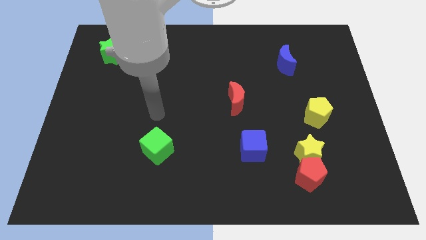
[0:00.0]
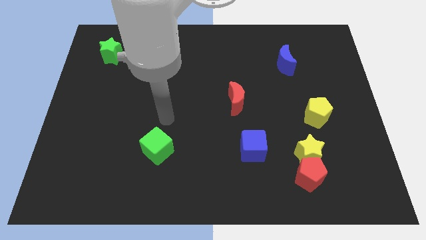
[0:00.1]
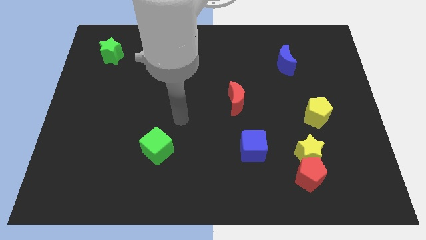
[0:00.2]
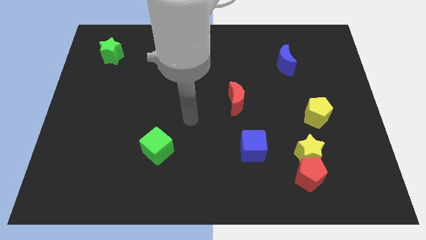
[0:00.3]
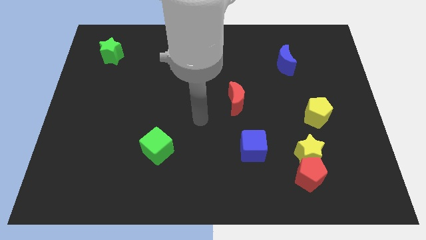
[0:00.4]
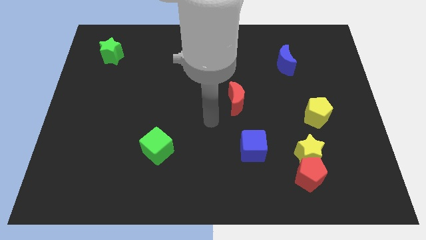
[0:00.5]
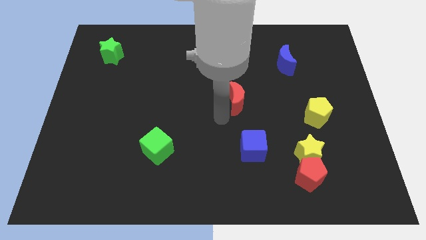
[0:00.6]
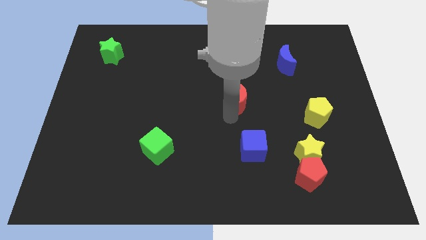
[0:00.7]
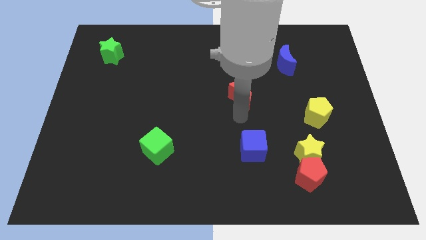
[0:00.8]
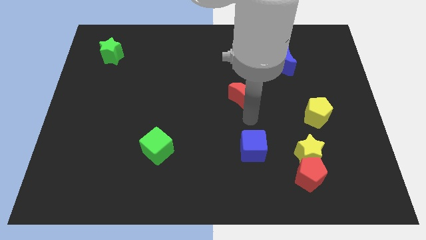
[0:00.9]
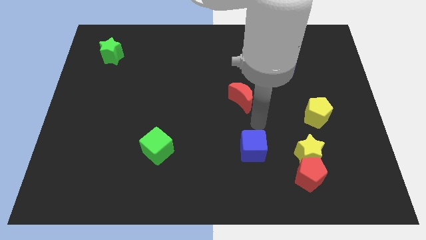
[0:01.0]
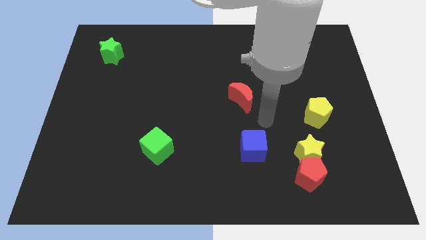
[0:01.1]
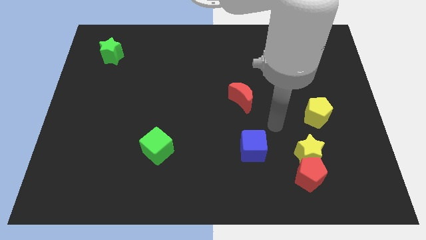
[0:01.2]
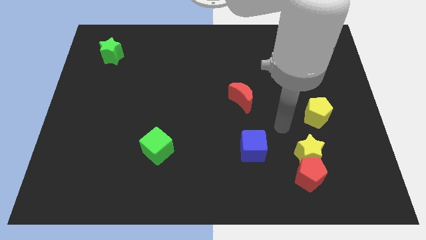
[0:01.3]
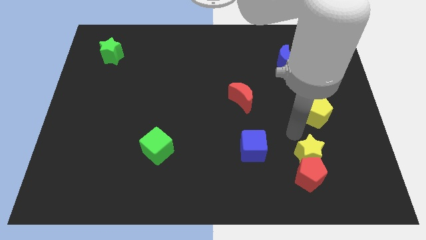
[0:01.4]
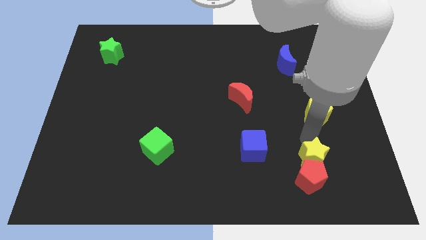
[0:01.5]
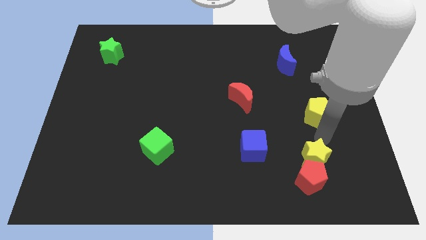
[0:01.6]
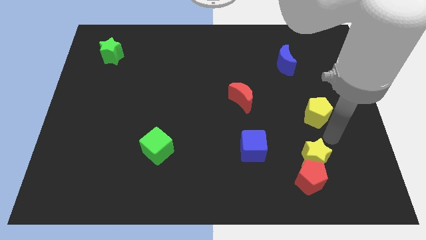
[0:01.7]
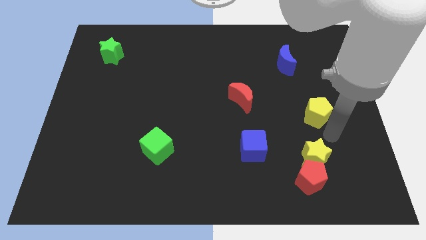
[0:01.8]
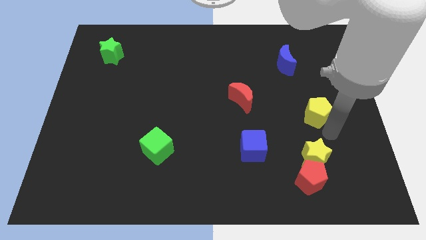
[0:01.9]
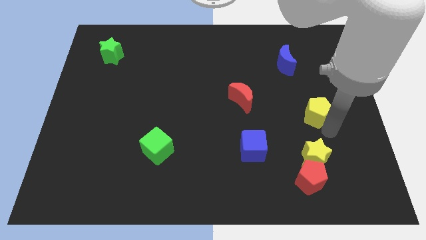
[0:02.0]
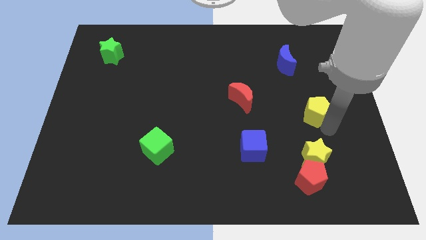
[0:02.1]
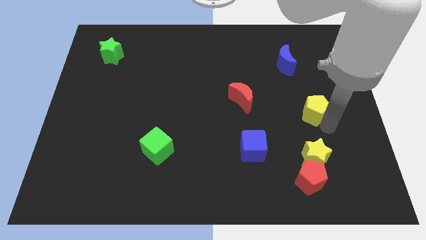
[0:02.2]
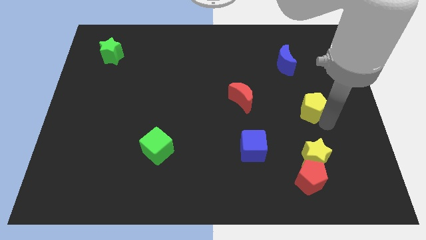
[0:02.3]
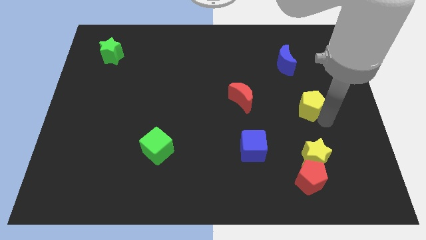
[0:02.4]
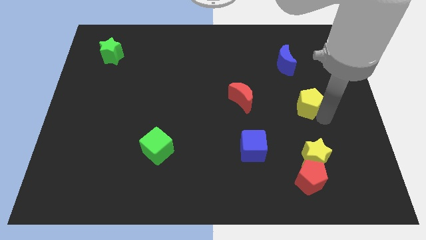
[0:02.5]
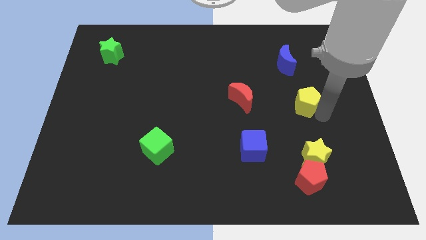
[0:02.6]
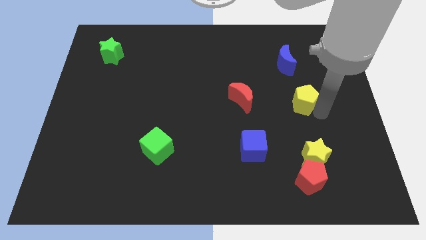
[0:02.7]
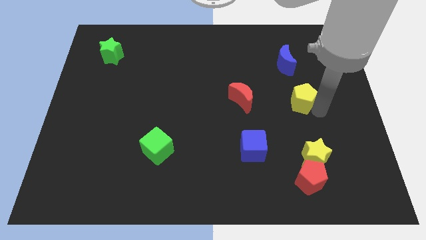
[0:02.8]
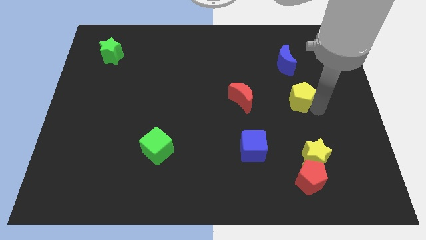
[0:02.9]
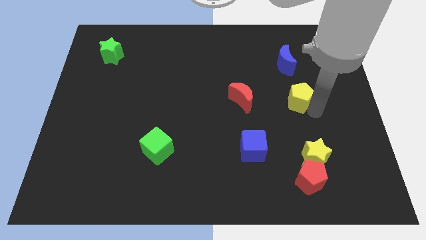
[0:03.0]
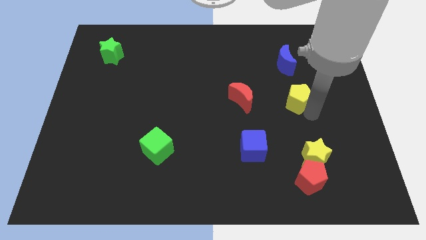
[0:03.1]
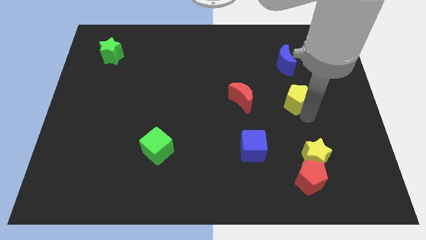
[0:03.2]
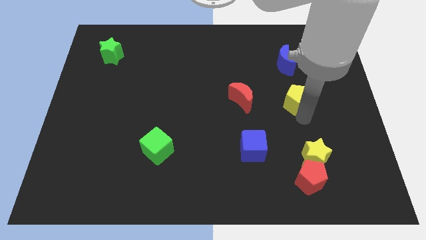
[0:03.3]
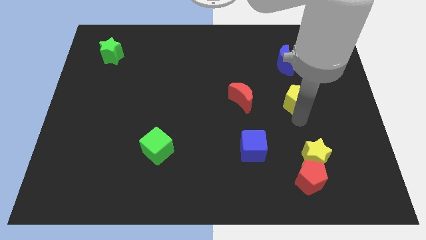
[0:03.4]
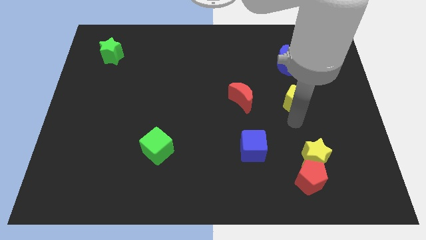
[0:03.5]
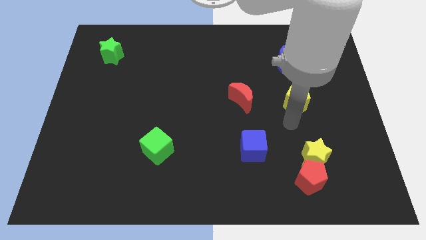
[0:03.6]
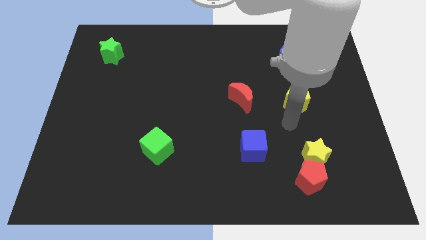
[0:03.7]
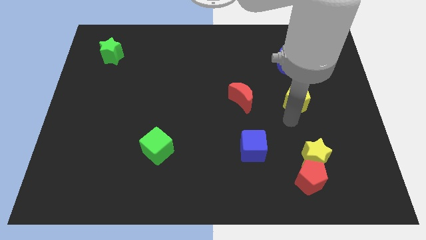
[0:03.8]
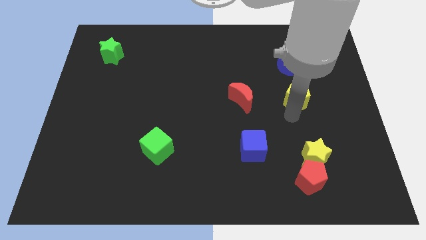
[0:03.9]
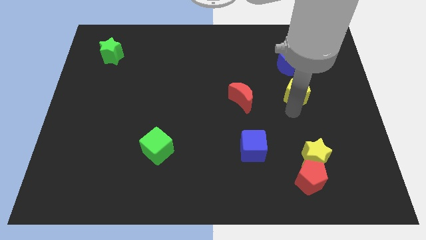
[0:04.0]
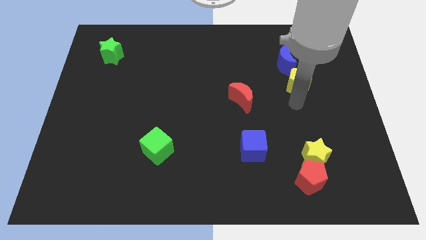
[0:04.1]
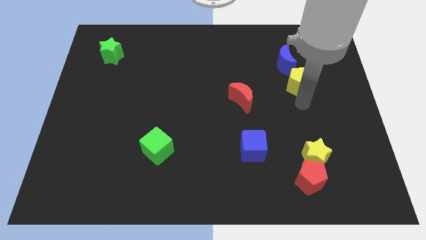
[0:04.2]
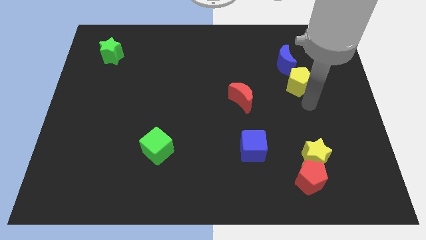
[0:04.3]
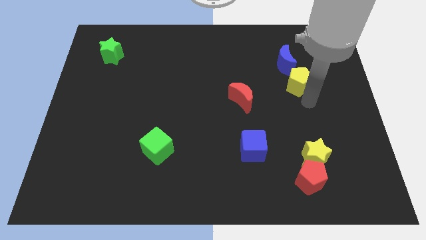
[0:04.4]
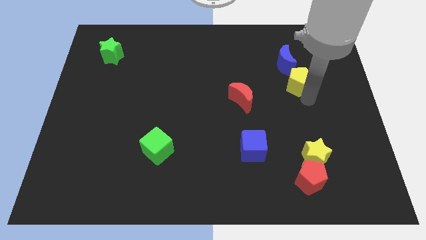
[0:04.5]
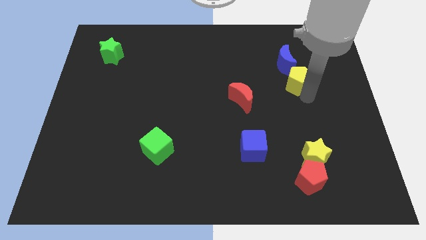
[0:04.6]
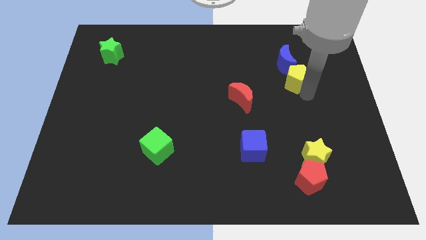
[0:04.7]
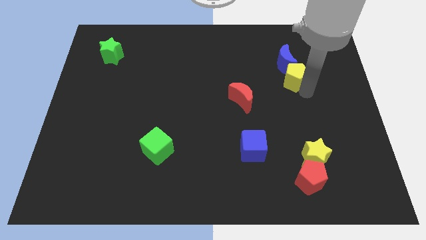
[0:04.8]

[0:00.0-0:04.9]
put the yellow pentagon close to the blue moon

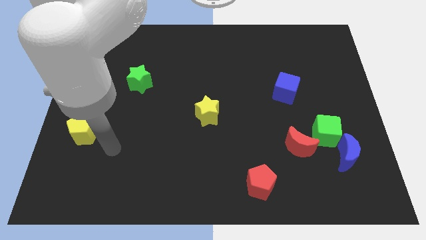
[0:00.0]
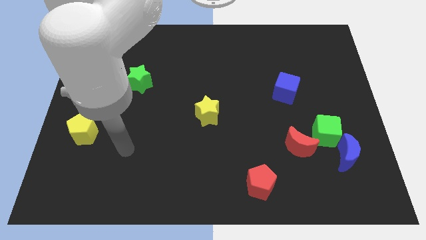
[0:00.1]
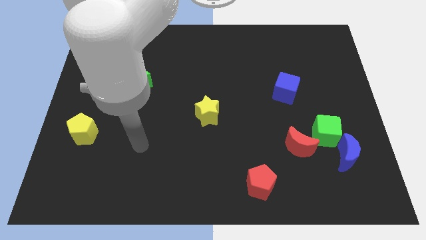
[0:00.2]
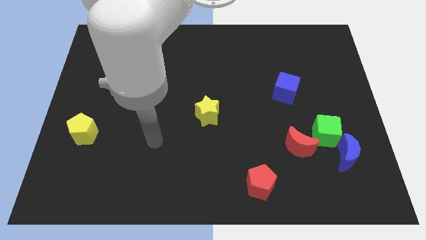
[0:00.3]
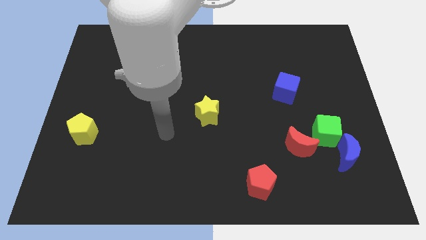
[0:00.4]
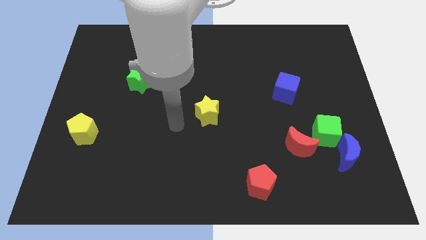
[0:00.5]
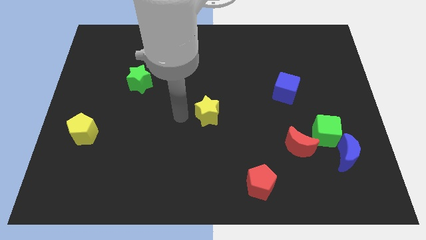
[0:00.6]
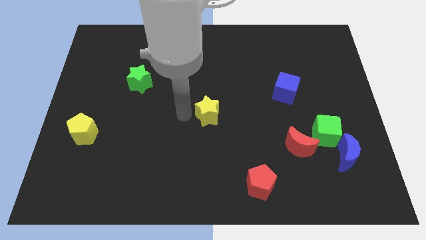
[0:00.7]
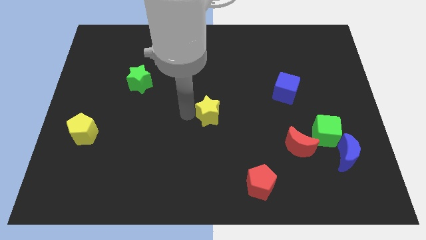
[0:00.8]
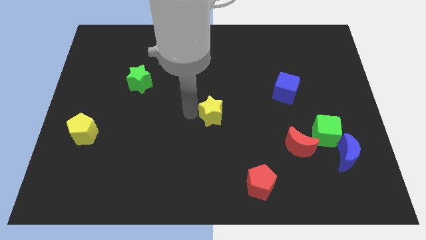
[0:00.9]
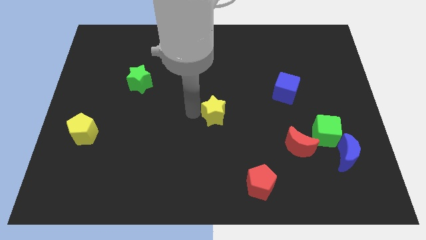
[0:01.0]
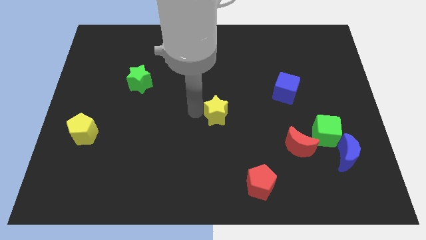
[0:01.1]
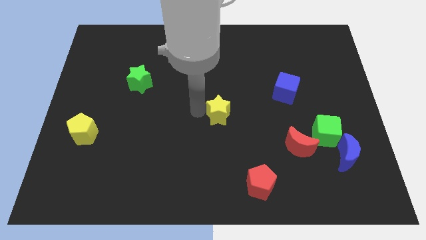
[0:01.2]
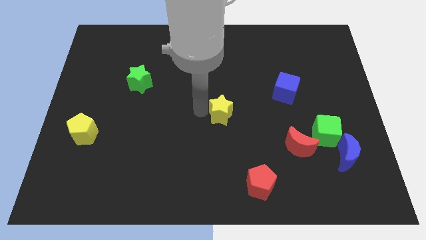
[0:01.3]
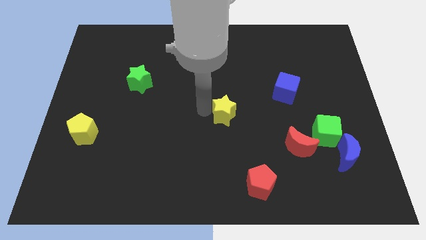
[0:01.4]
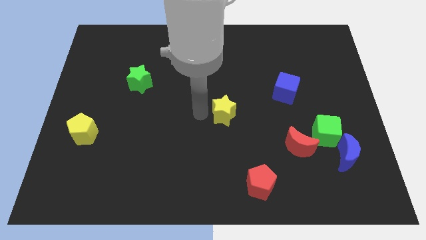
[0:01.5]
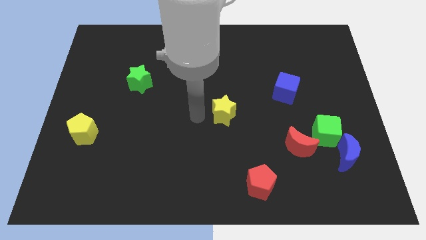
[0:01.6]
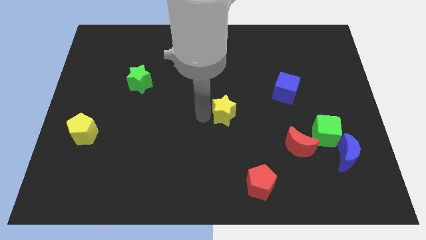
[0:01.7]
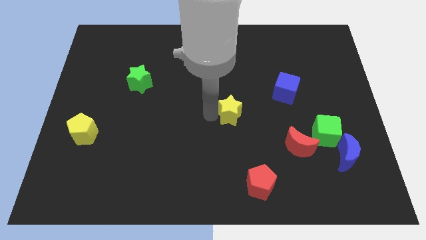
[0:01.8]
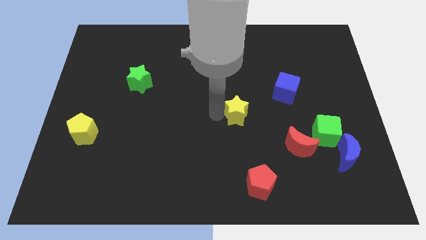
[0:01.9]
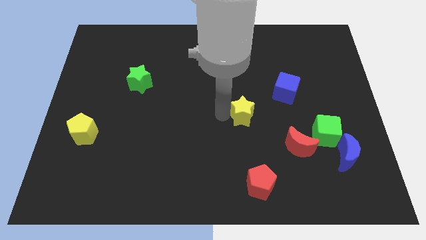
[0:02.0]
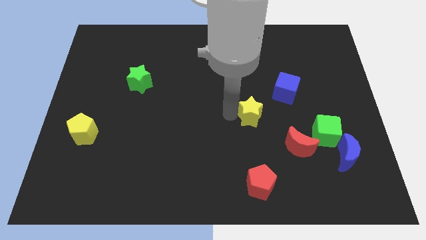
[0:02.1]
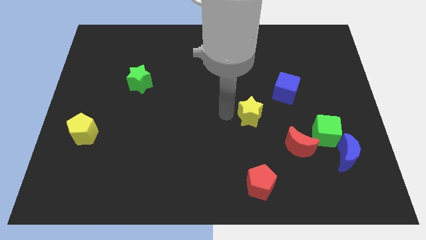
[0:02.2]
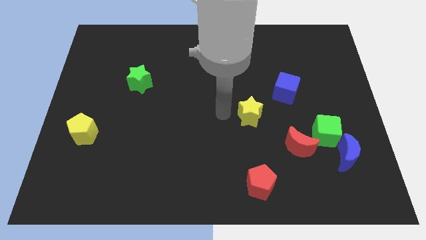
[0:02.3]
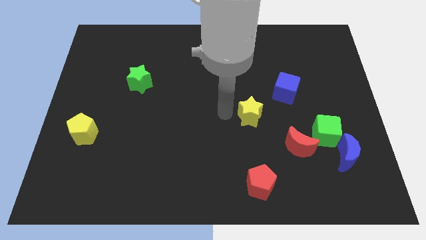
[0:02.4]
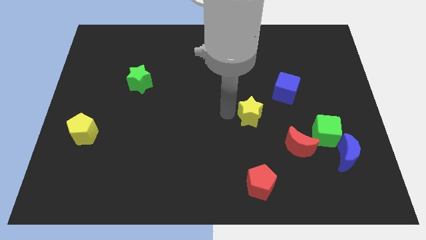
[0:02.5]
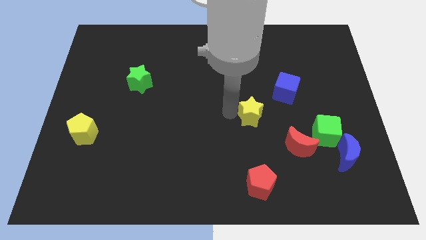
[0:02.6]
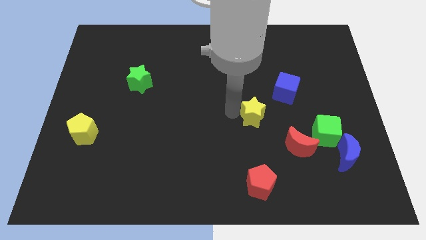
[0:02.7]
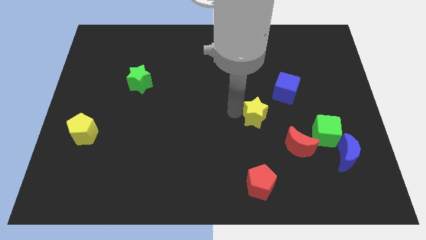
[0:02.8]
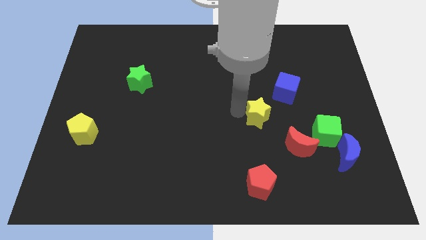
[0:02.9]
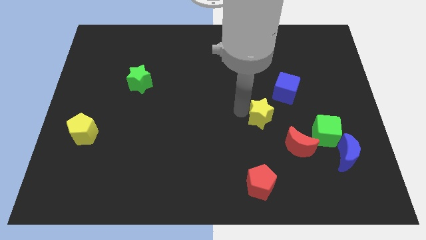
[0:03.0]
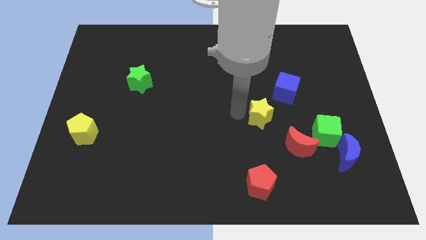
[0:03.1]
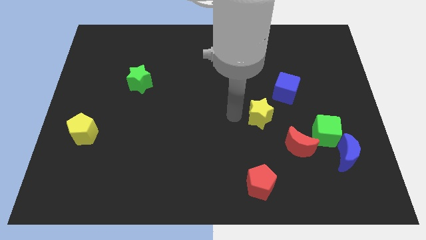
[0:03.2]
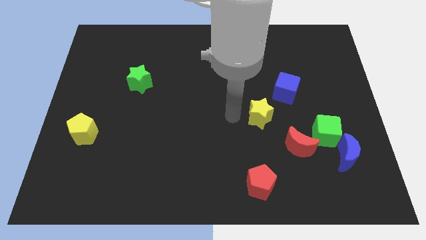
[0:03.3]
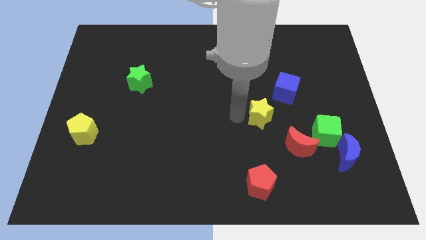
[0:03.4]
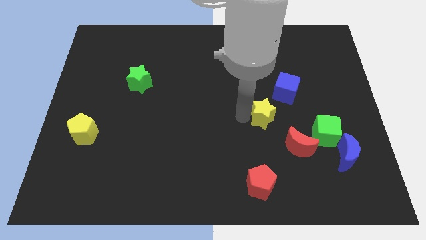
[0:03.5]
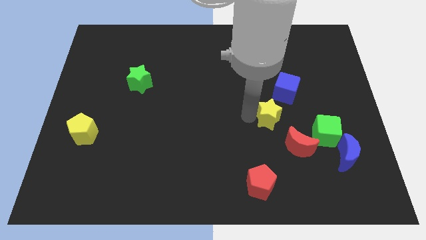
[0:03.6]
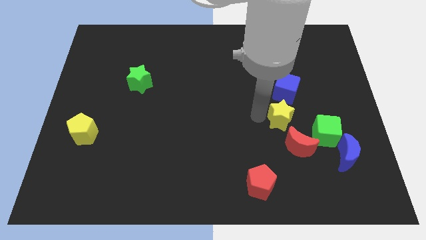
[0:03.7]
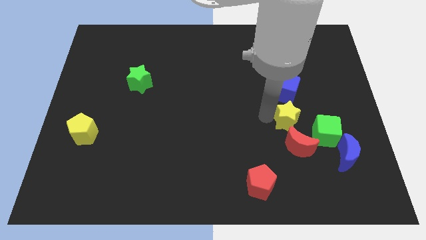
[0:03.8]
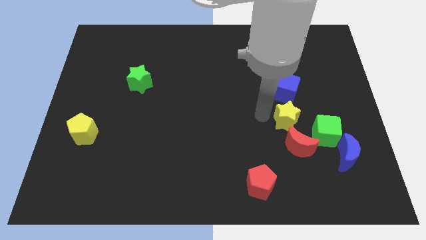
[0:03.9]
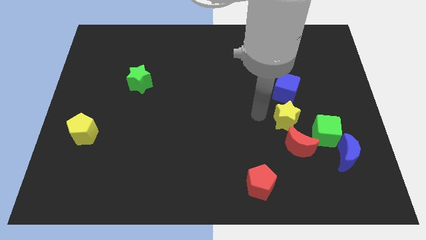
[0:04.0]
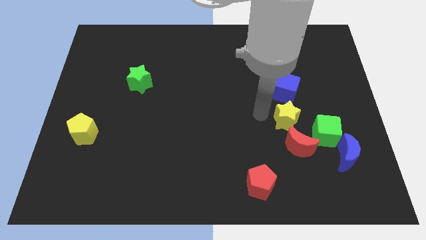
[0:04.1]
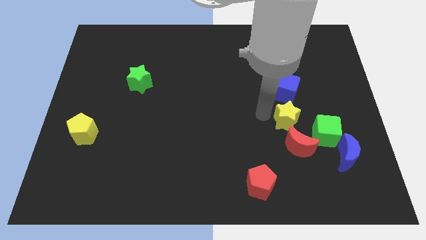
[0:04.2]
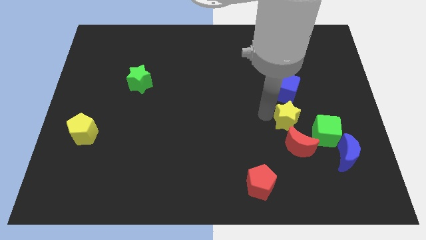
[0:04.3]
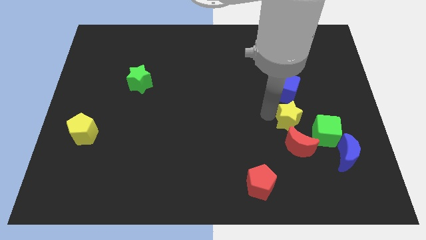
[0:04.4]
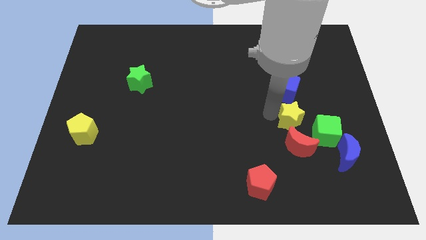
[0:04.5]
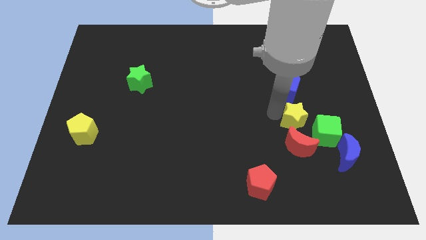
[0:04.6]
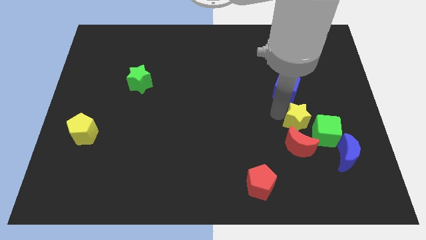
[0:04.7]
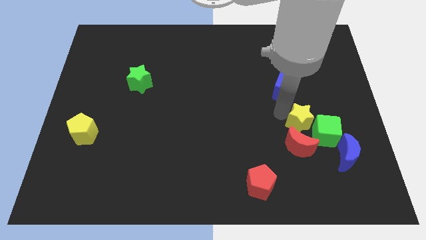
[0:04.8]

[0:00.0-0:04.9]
slide the yellow star close to the green cube
